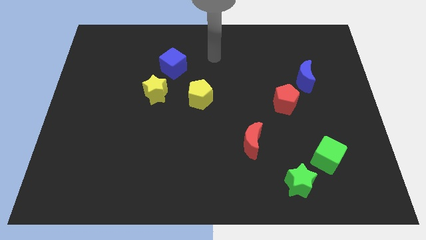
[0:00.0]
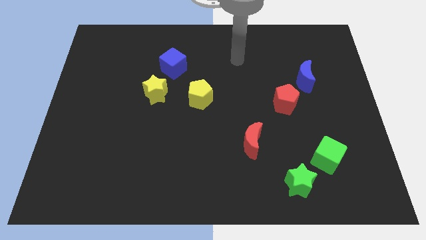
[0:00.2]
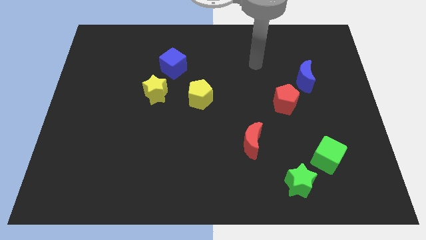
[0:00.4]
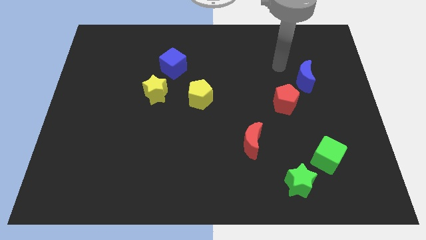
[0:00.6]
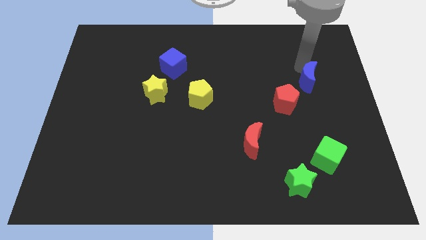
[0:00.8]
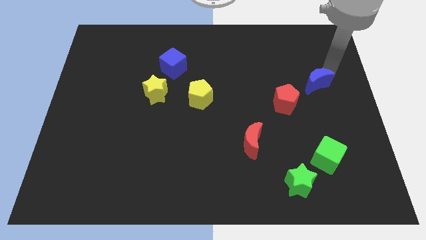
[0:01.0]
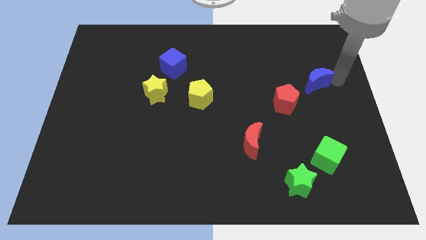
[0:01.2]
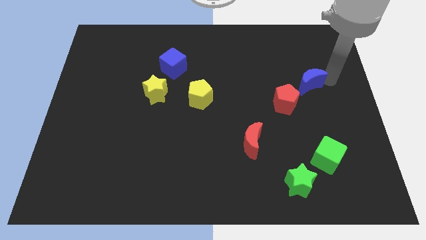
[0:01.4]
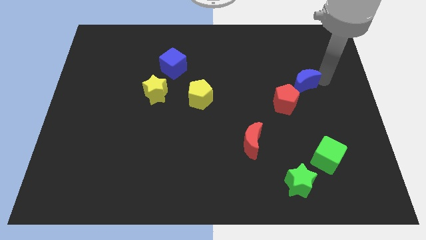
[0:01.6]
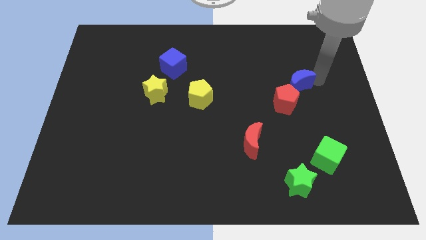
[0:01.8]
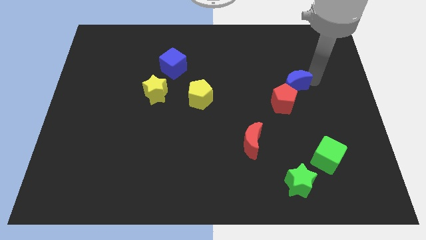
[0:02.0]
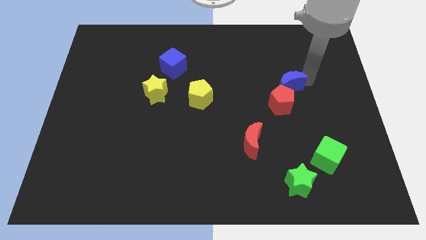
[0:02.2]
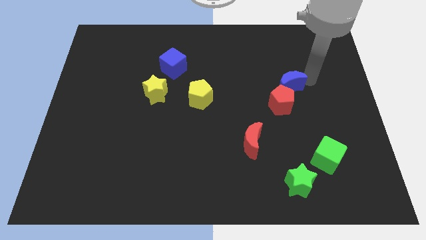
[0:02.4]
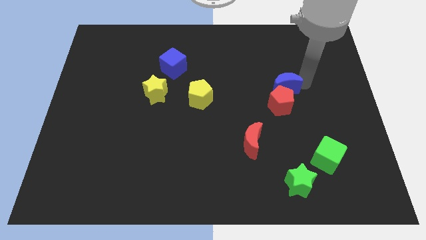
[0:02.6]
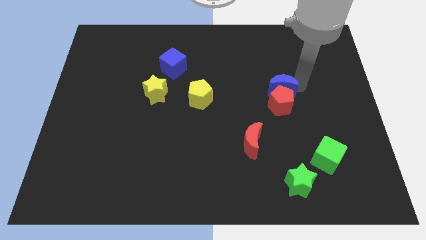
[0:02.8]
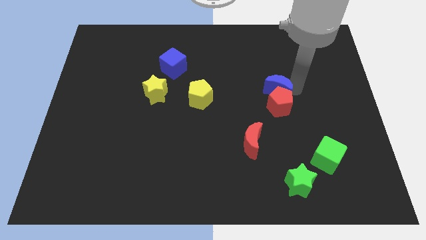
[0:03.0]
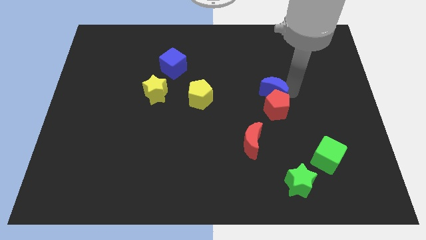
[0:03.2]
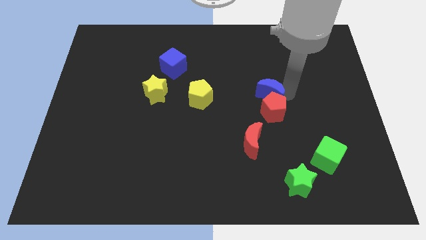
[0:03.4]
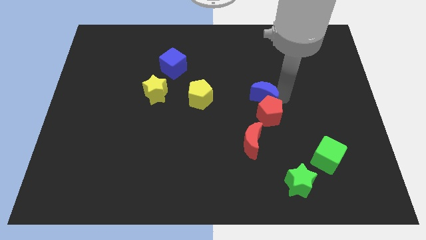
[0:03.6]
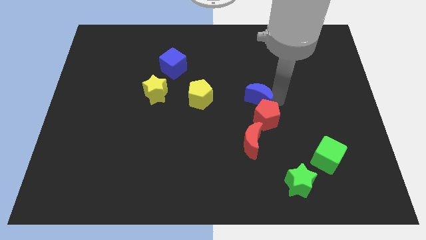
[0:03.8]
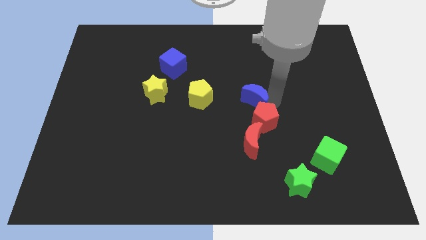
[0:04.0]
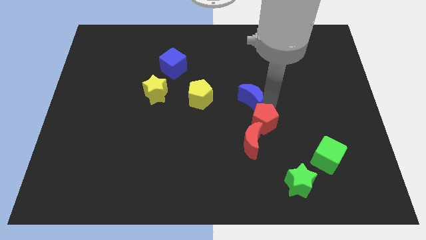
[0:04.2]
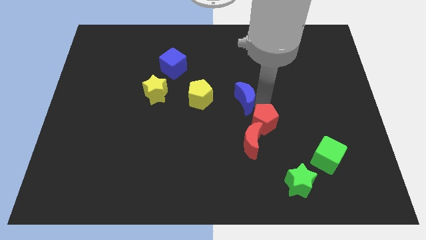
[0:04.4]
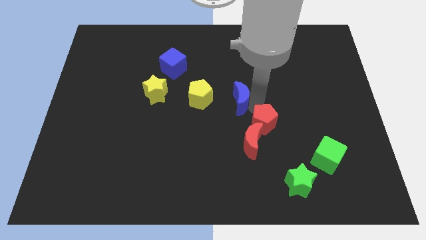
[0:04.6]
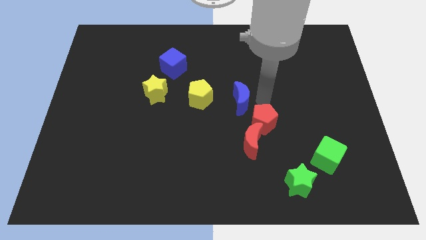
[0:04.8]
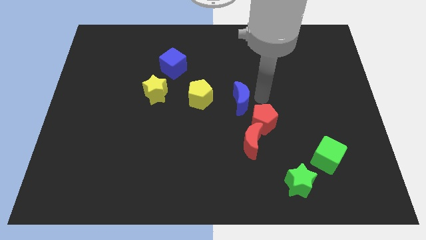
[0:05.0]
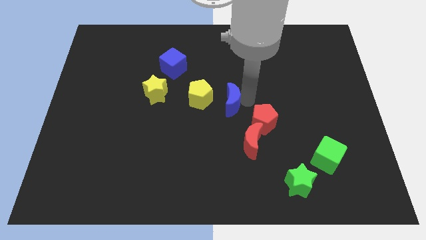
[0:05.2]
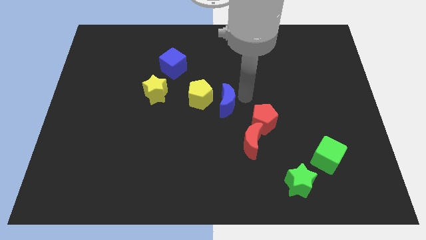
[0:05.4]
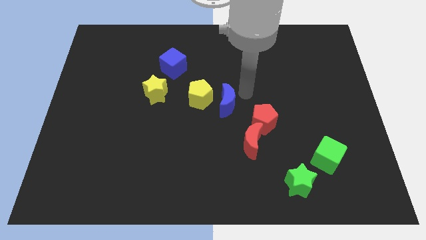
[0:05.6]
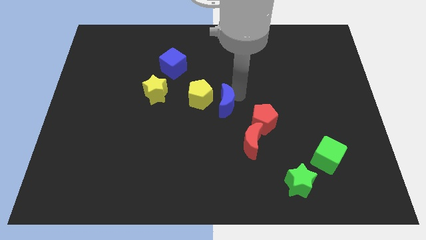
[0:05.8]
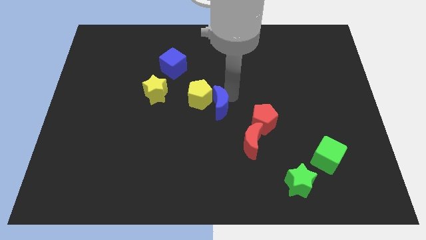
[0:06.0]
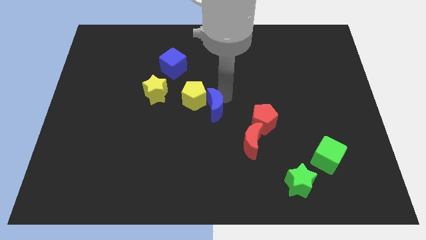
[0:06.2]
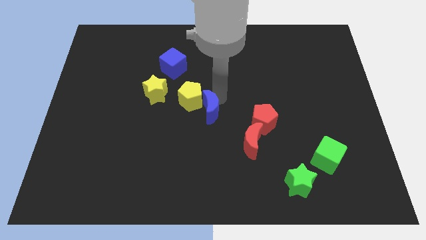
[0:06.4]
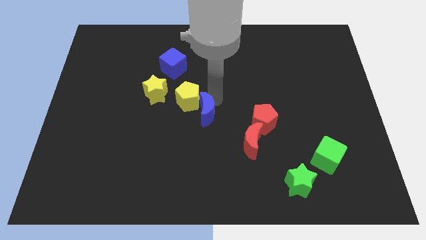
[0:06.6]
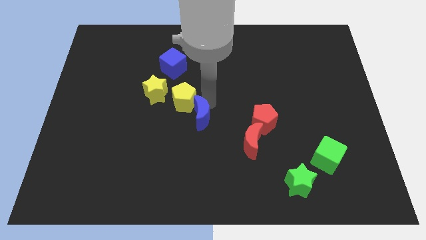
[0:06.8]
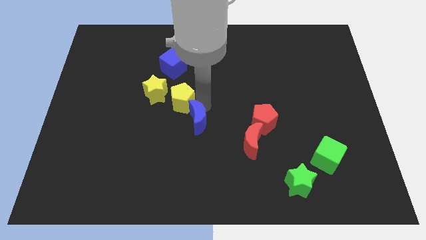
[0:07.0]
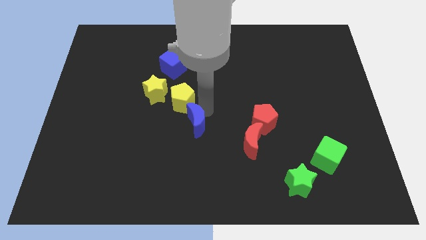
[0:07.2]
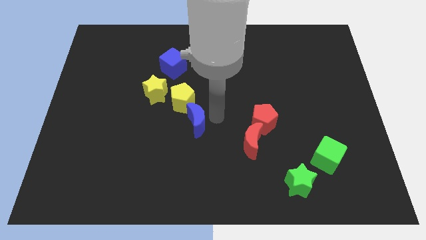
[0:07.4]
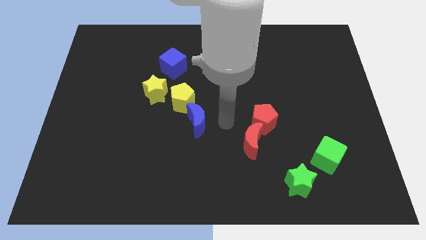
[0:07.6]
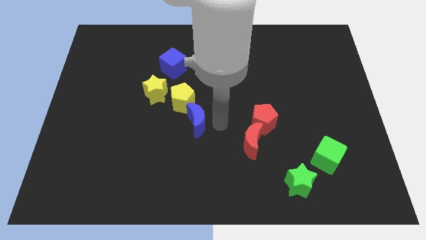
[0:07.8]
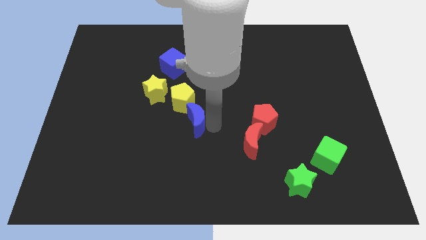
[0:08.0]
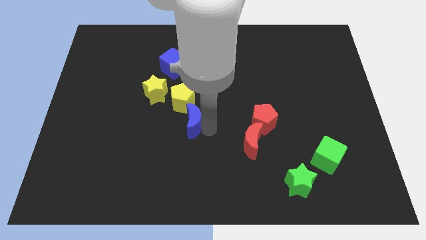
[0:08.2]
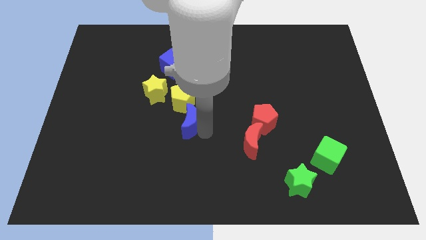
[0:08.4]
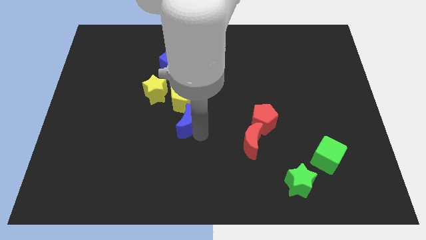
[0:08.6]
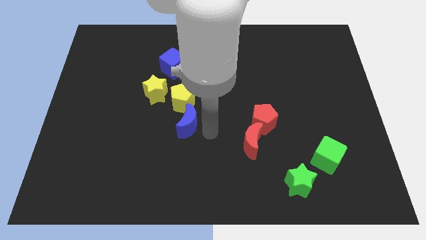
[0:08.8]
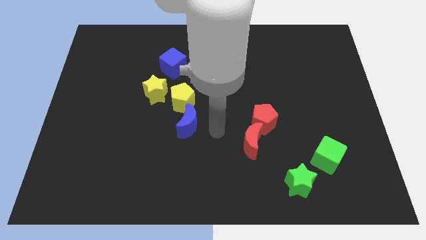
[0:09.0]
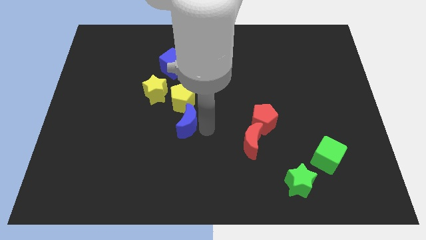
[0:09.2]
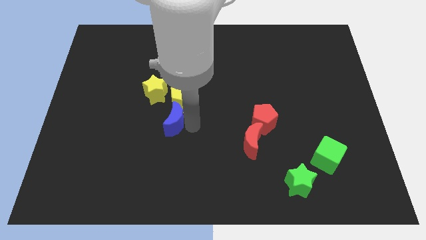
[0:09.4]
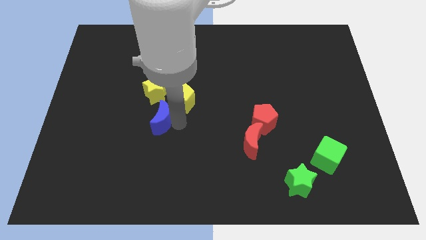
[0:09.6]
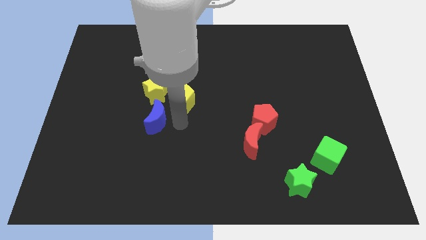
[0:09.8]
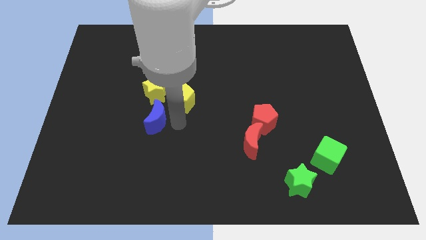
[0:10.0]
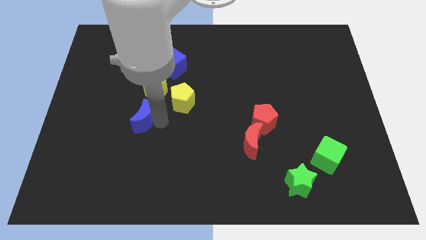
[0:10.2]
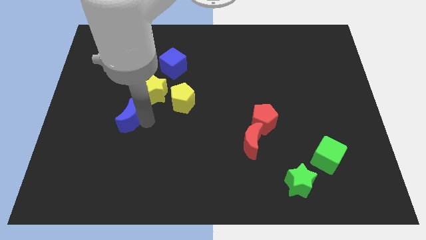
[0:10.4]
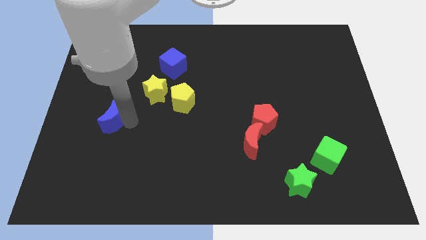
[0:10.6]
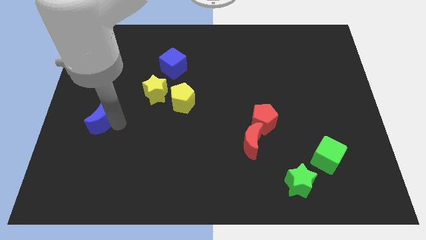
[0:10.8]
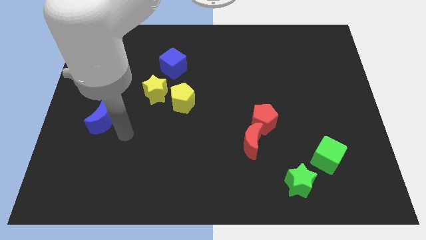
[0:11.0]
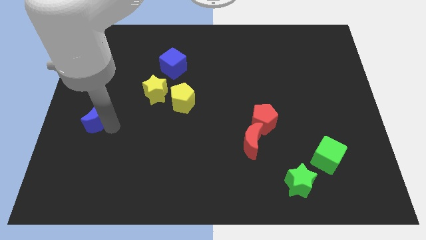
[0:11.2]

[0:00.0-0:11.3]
push the blue moon to the center left
